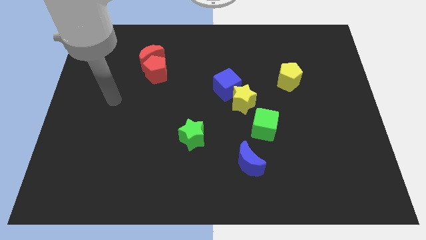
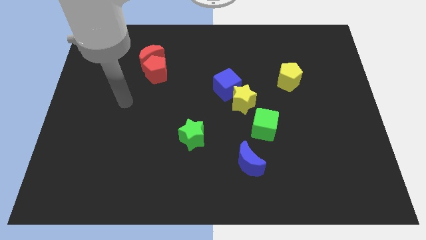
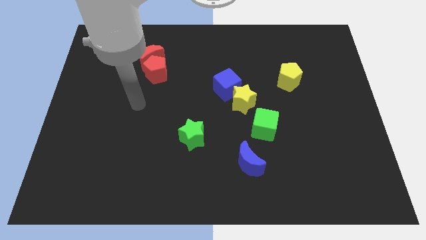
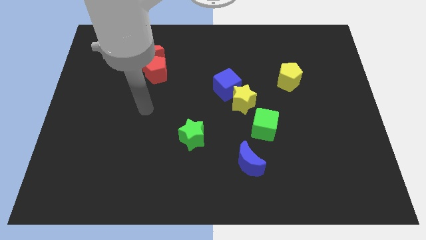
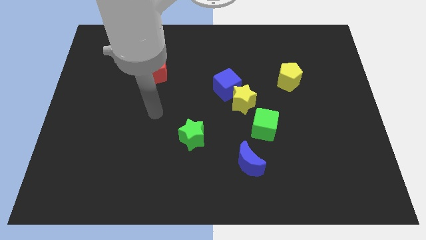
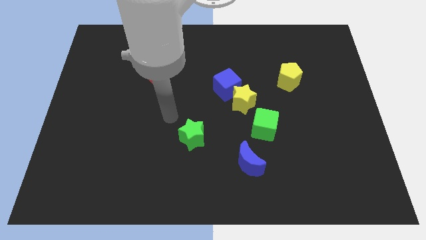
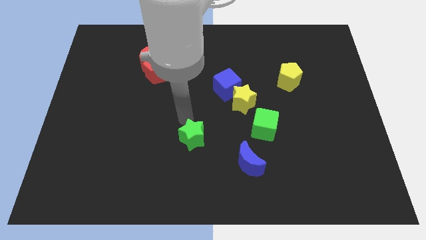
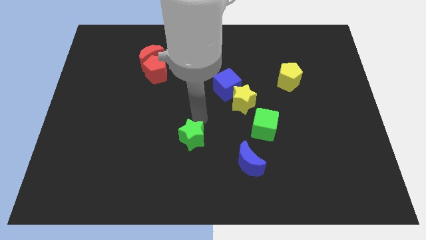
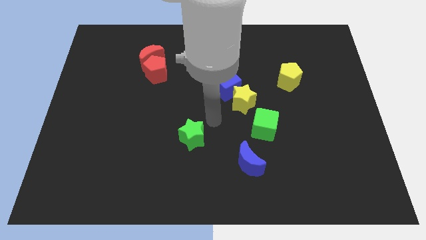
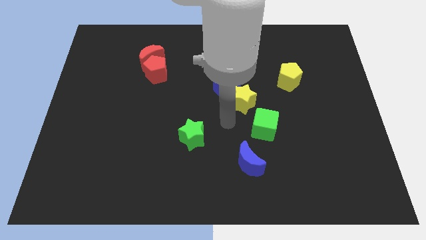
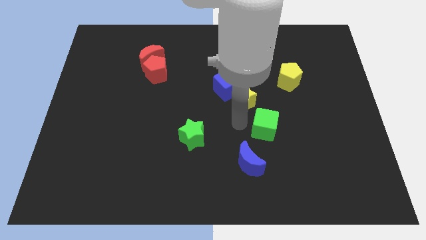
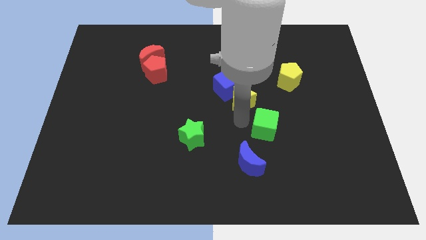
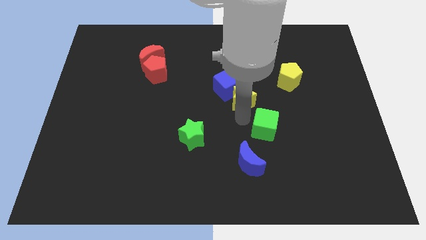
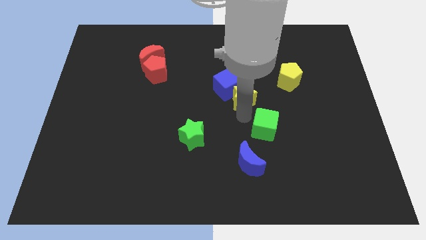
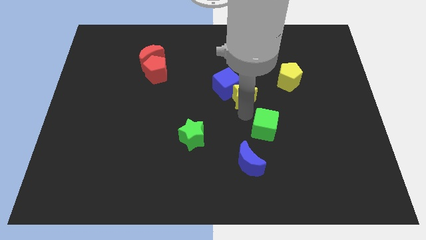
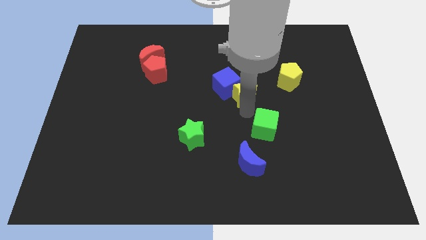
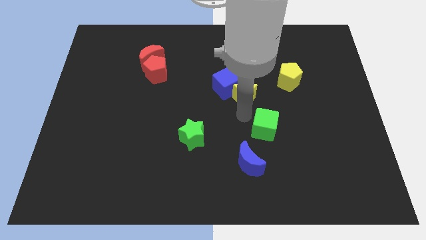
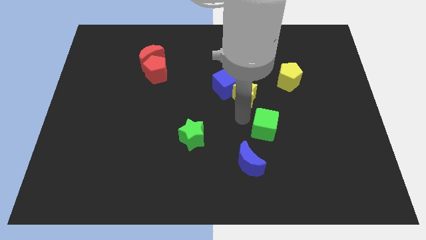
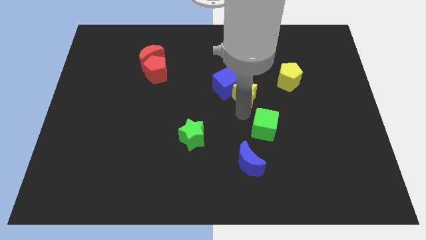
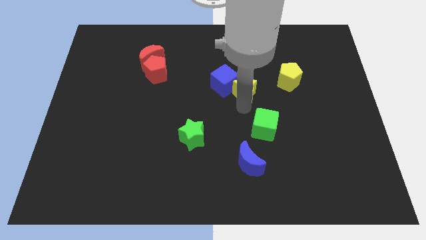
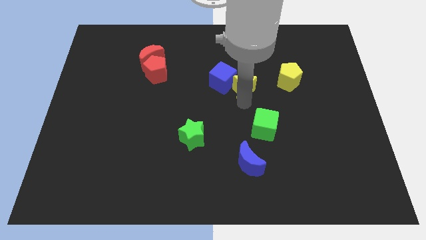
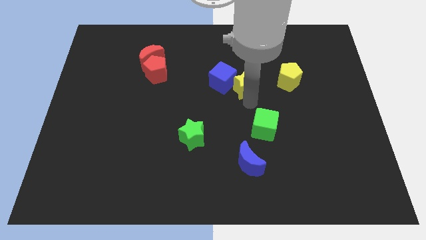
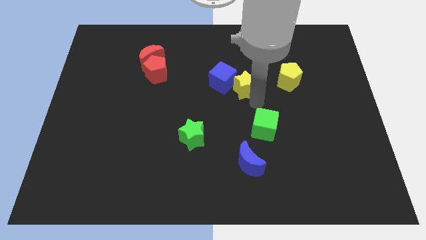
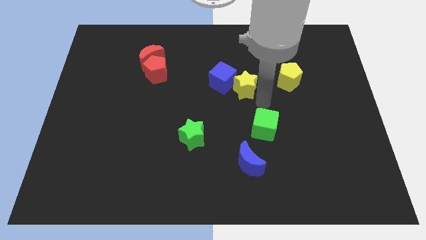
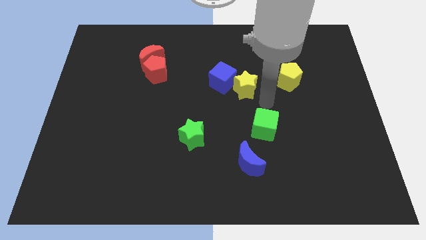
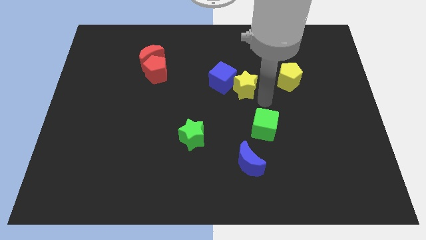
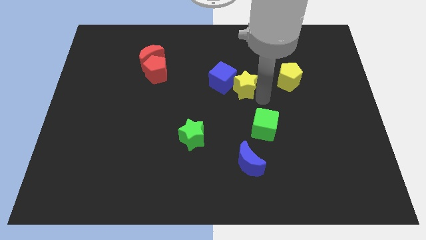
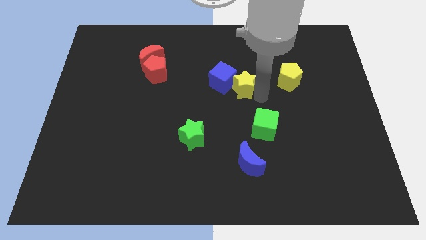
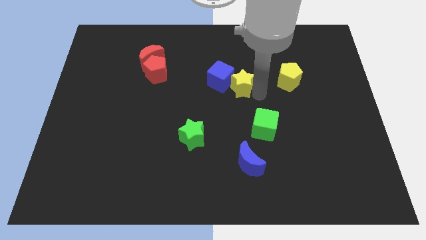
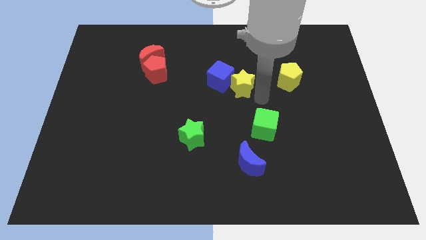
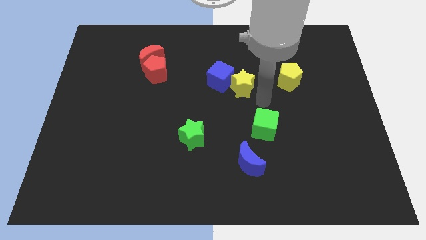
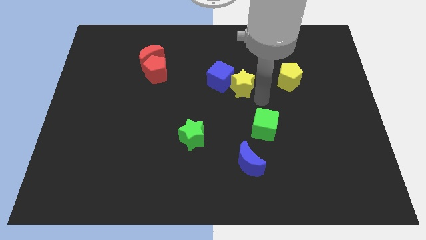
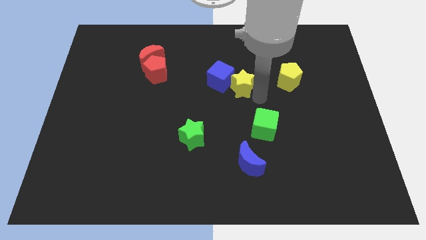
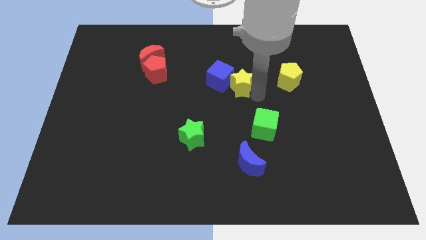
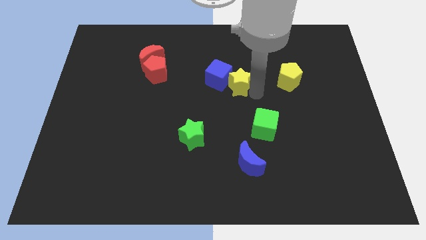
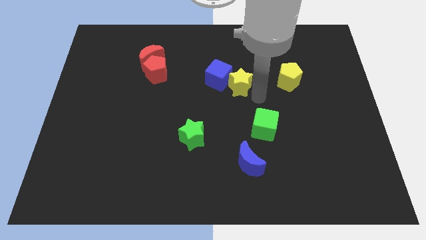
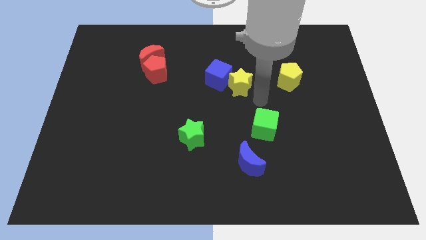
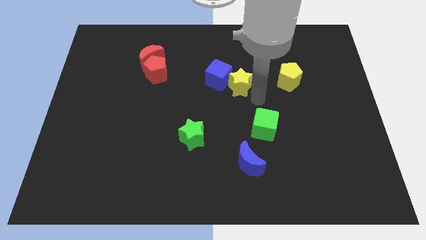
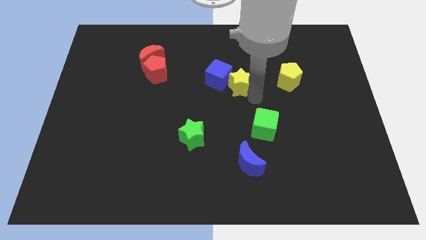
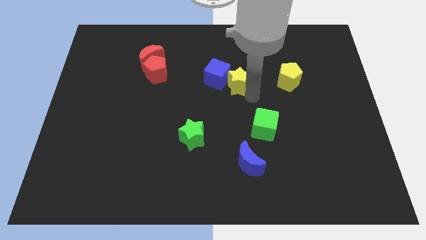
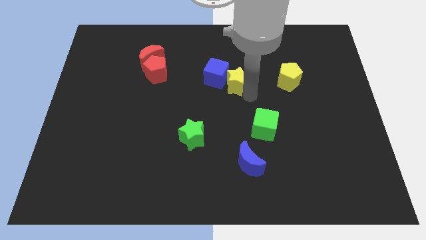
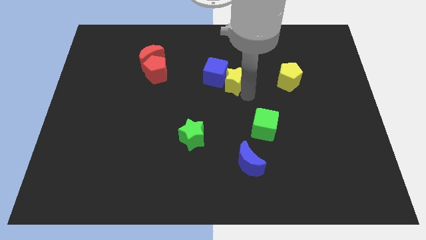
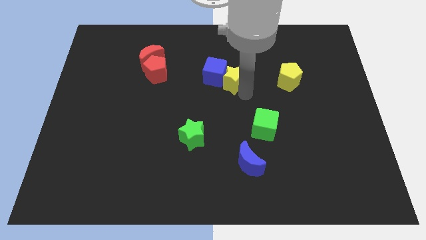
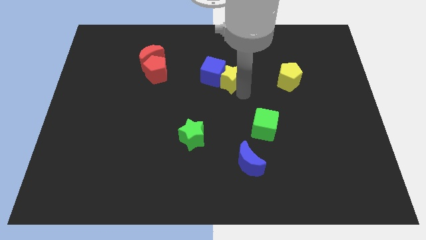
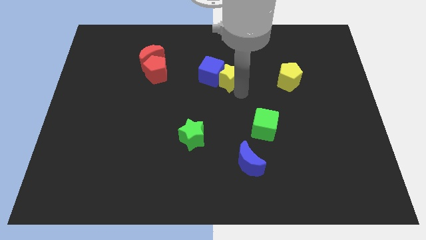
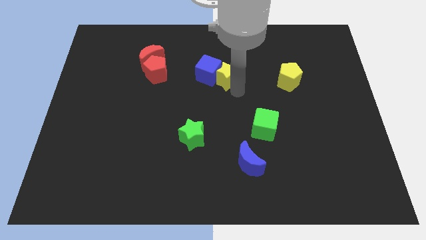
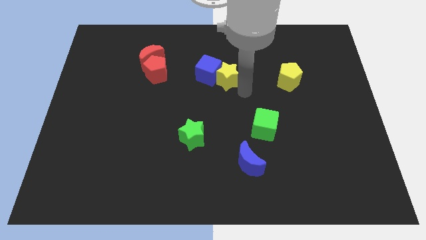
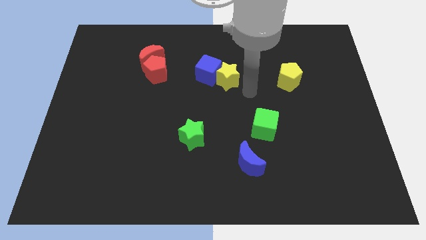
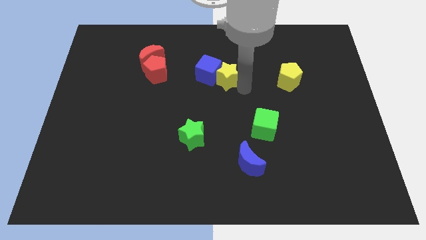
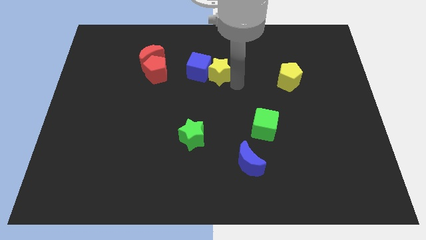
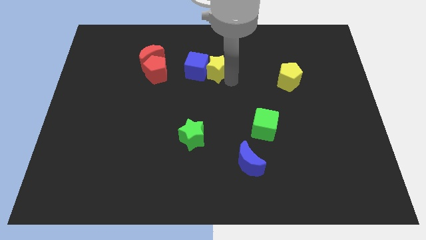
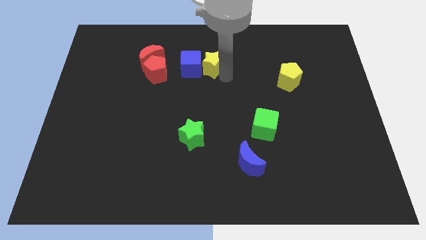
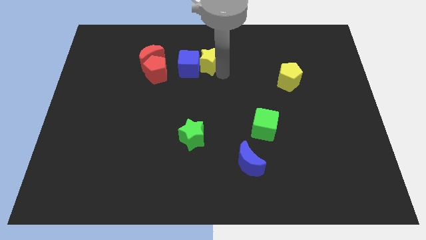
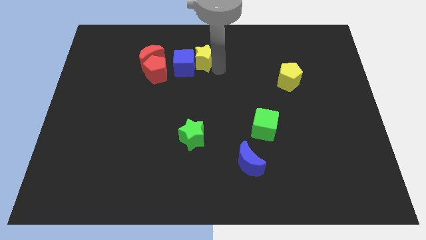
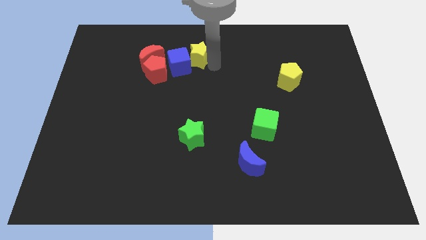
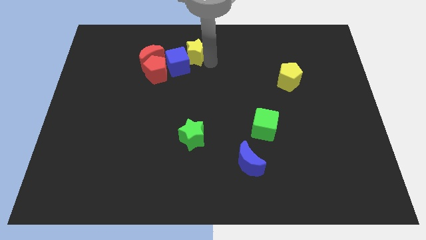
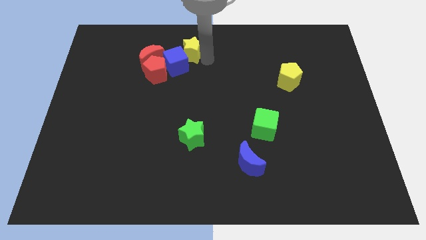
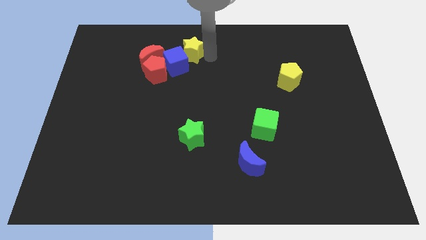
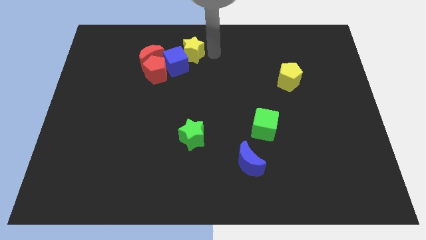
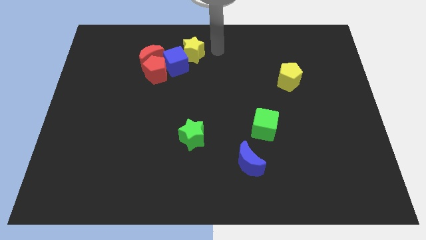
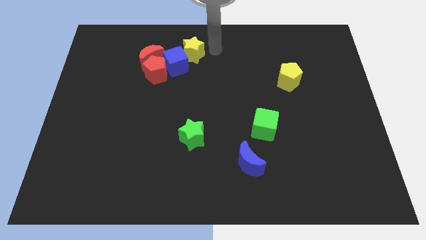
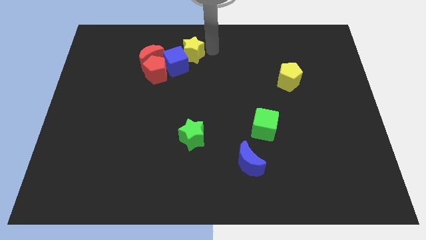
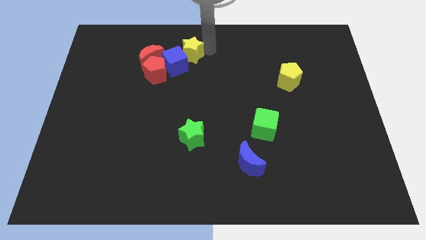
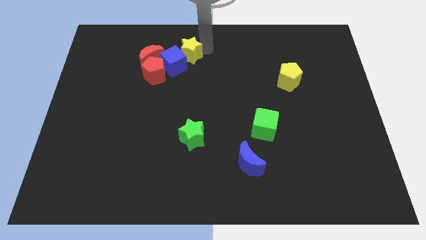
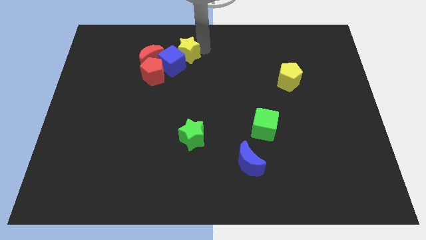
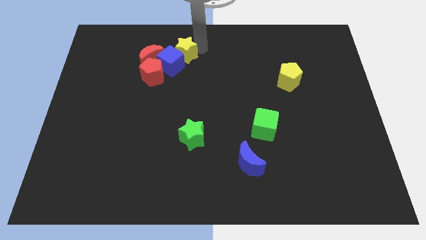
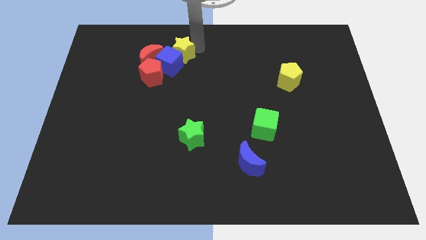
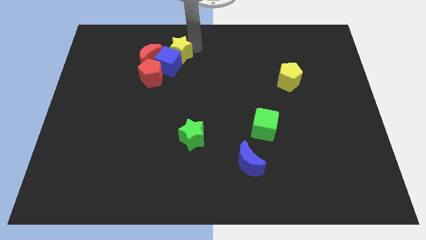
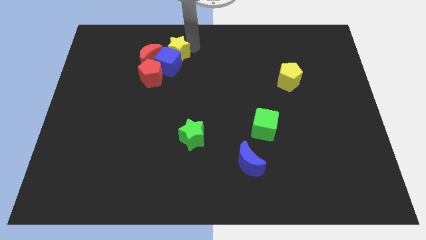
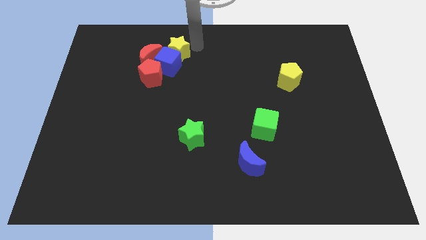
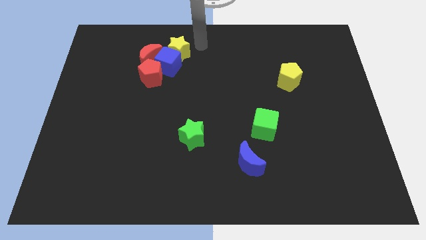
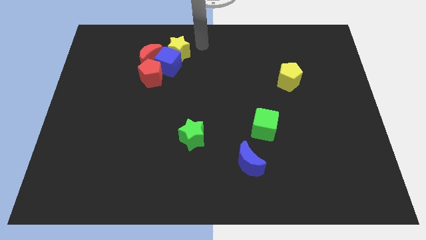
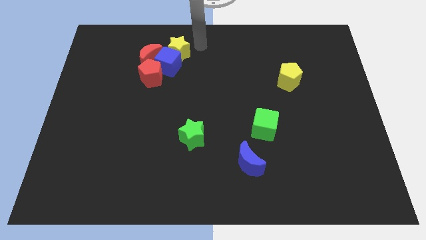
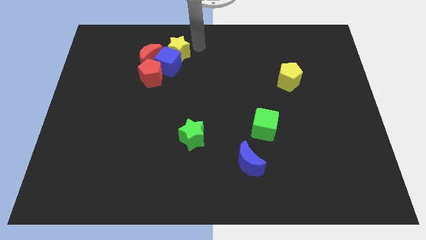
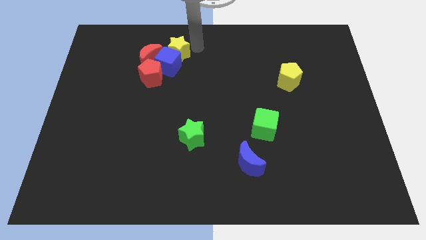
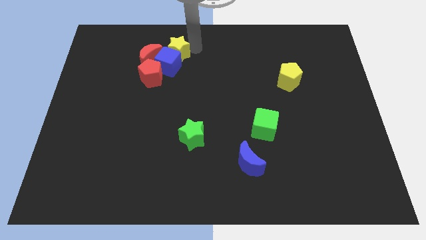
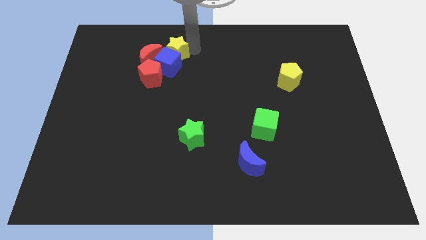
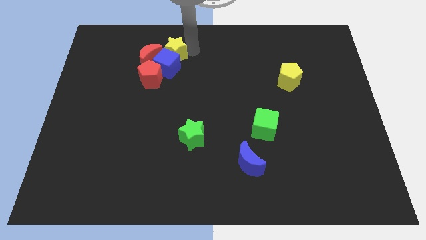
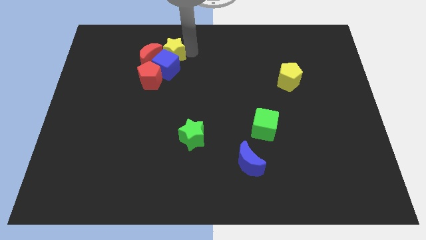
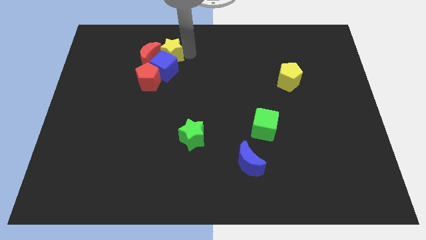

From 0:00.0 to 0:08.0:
put the yellow star close to the red moon
